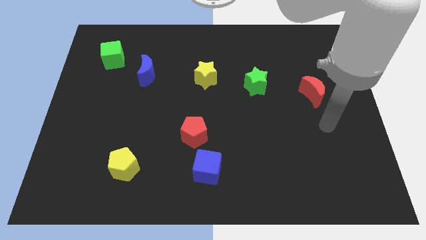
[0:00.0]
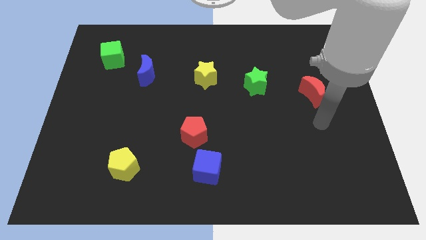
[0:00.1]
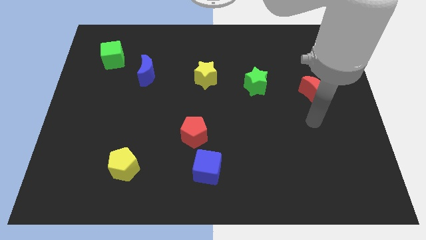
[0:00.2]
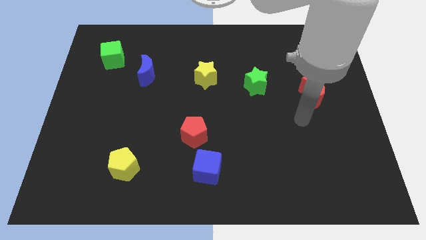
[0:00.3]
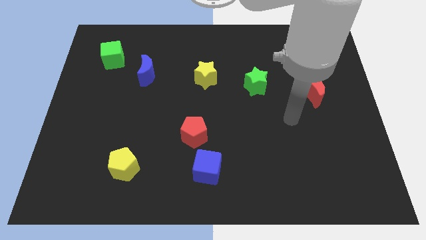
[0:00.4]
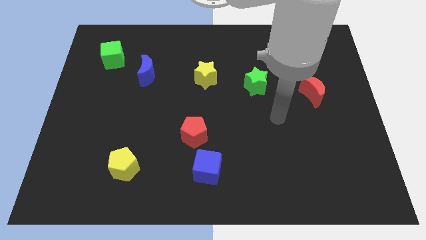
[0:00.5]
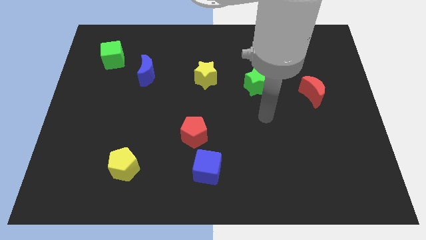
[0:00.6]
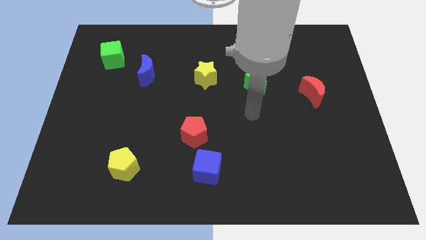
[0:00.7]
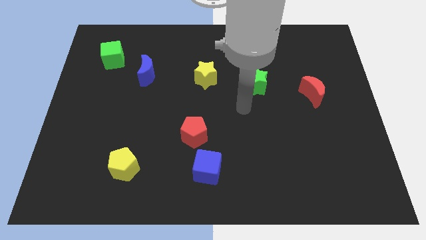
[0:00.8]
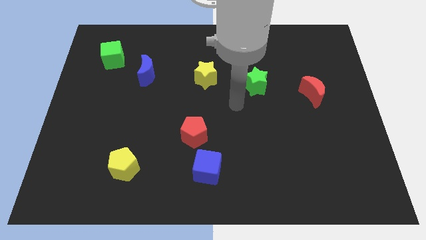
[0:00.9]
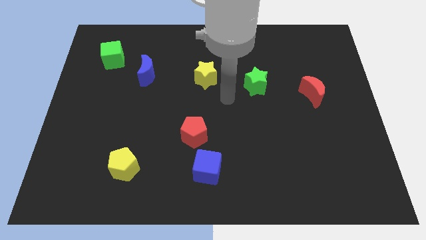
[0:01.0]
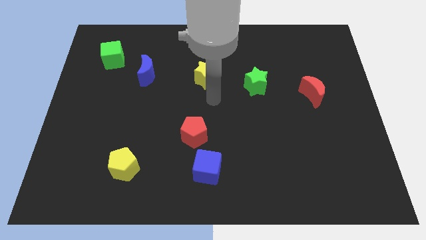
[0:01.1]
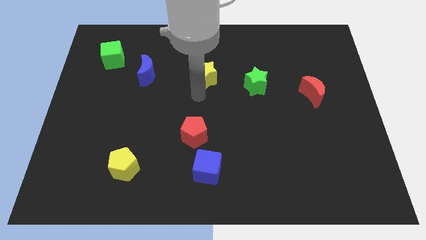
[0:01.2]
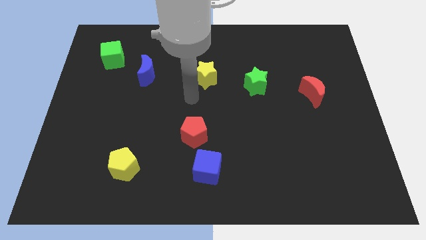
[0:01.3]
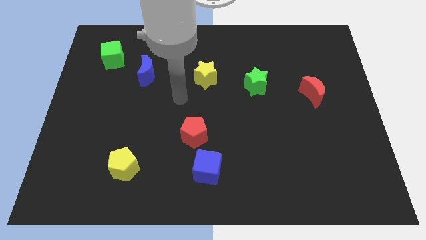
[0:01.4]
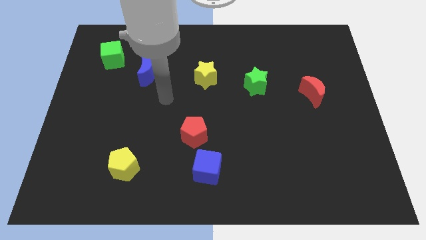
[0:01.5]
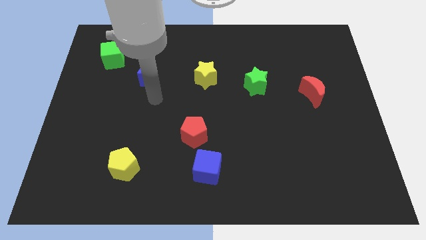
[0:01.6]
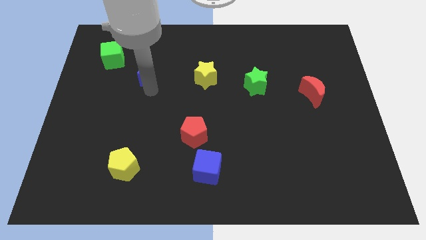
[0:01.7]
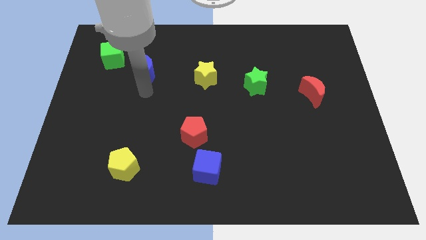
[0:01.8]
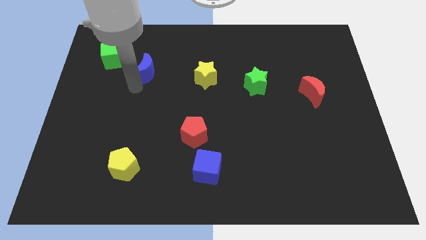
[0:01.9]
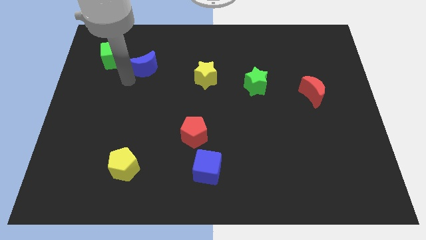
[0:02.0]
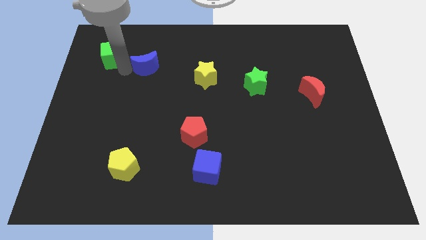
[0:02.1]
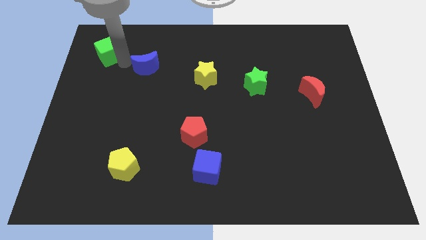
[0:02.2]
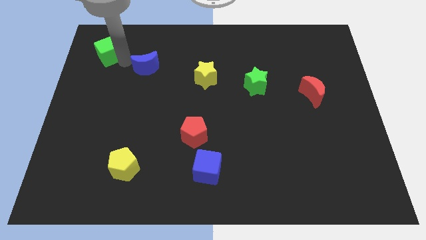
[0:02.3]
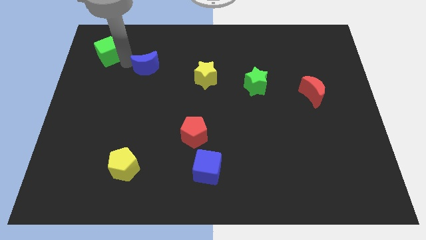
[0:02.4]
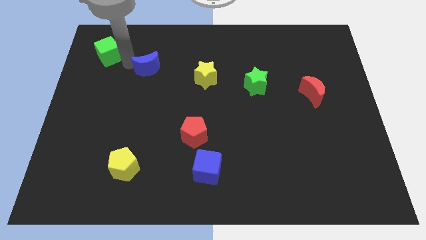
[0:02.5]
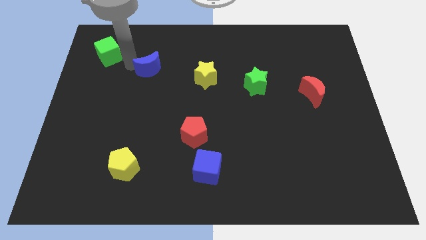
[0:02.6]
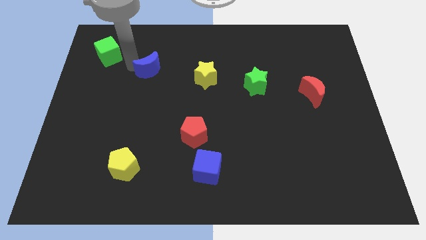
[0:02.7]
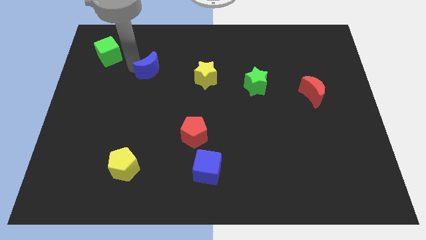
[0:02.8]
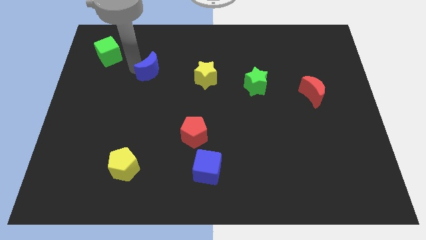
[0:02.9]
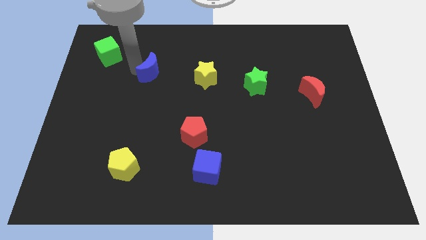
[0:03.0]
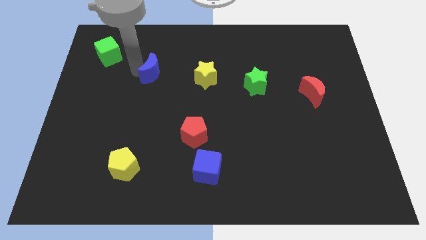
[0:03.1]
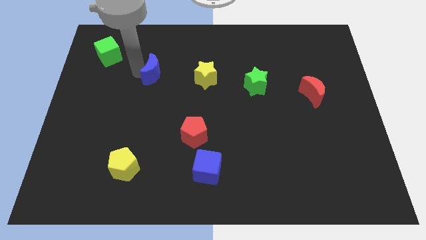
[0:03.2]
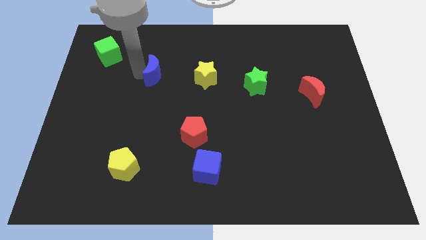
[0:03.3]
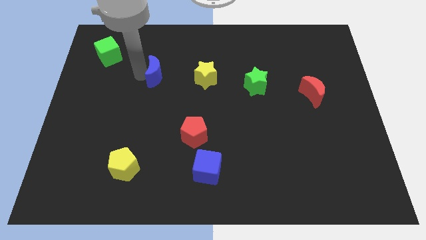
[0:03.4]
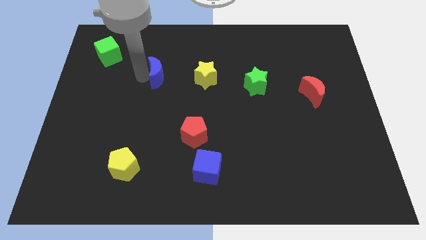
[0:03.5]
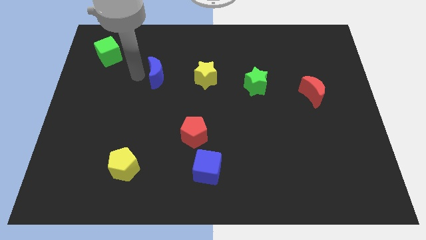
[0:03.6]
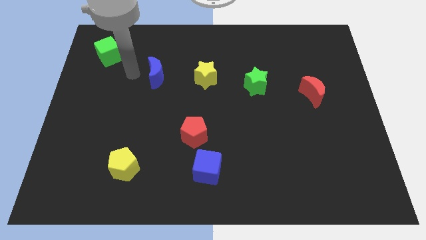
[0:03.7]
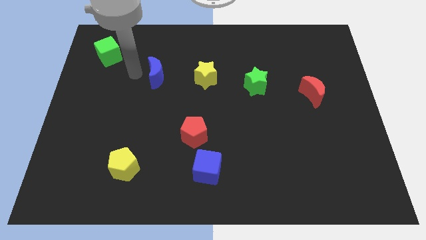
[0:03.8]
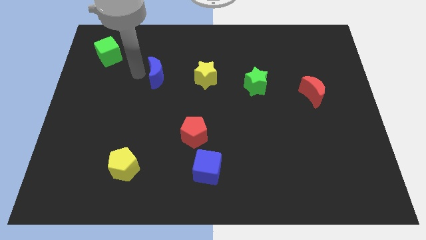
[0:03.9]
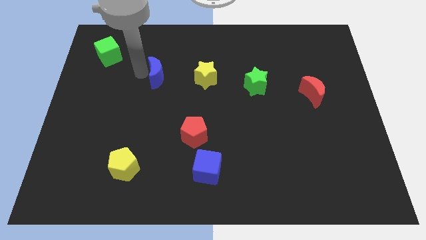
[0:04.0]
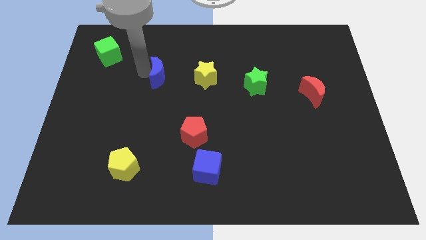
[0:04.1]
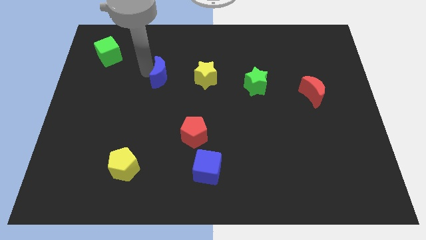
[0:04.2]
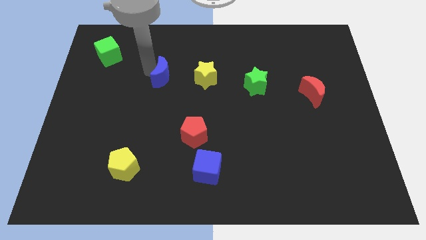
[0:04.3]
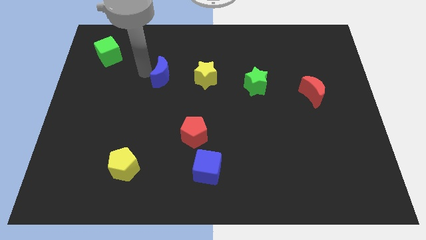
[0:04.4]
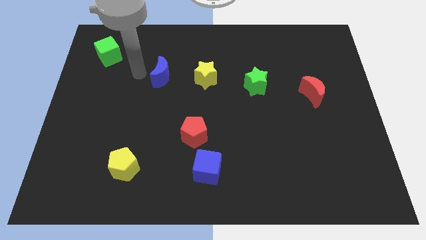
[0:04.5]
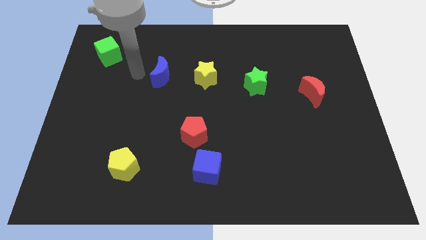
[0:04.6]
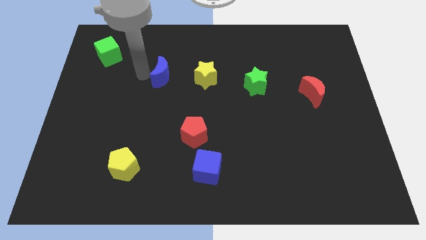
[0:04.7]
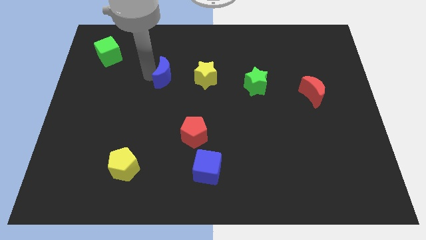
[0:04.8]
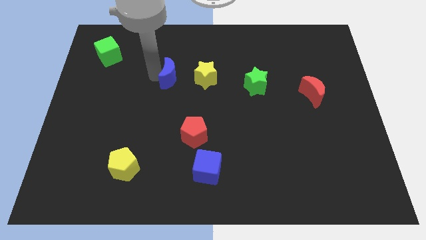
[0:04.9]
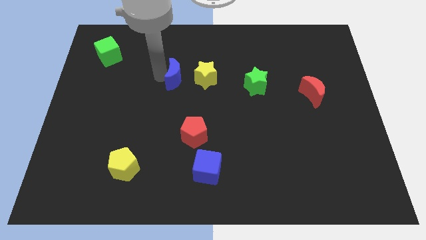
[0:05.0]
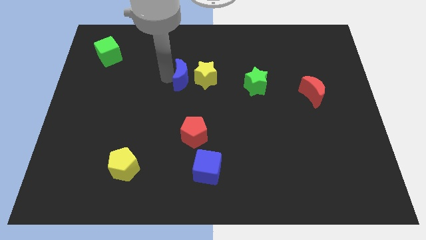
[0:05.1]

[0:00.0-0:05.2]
slide the blue moon close to the yellow star

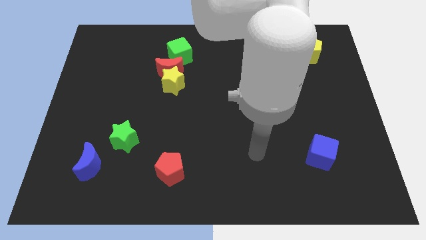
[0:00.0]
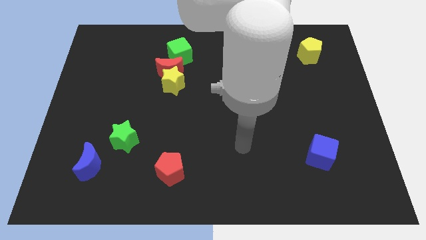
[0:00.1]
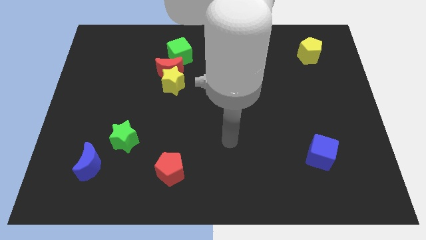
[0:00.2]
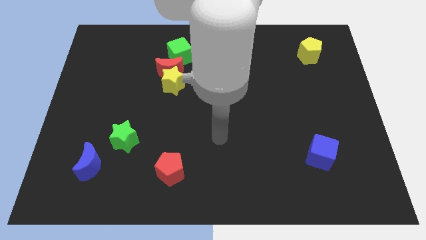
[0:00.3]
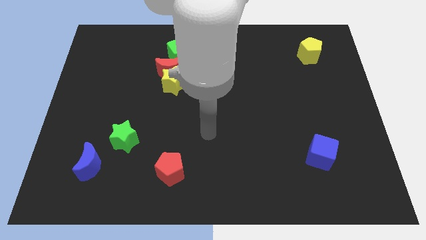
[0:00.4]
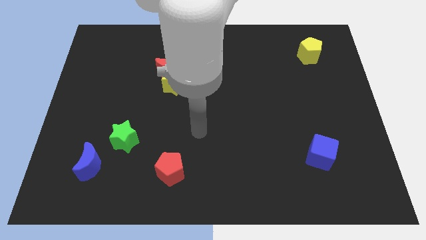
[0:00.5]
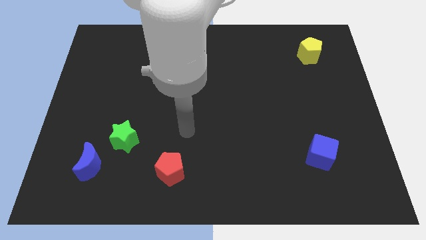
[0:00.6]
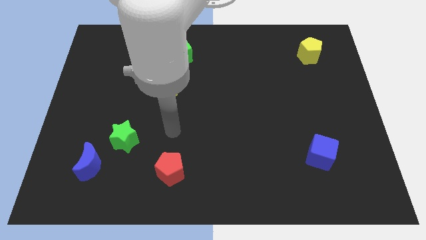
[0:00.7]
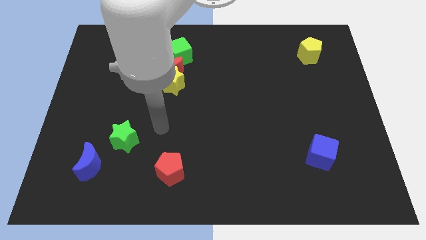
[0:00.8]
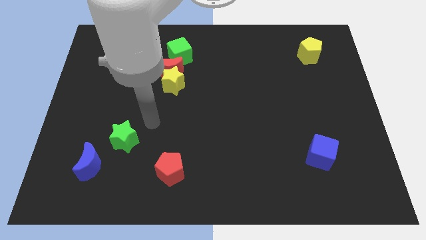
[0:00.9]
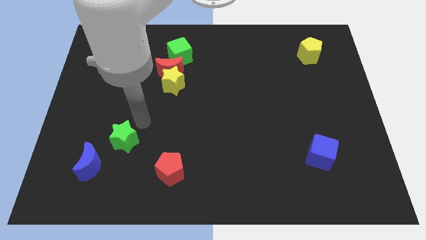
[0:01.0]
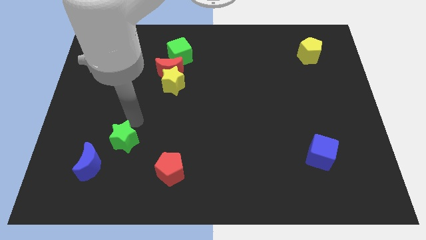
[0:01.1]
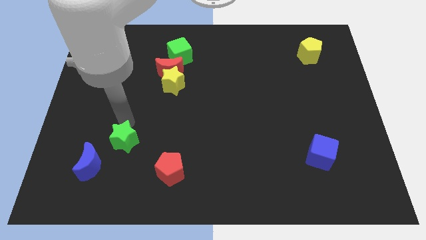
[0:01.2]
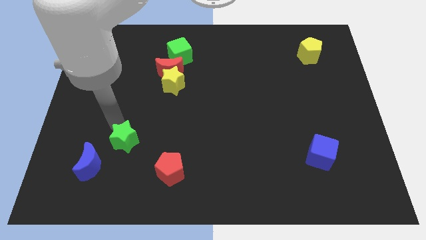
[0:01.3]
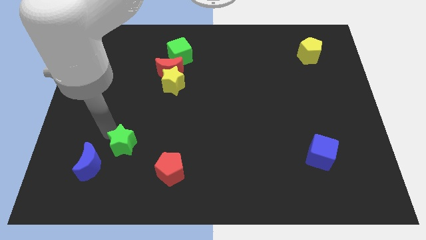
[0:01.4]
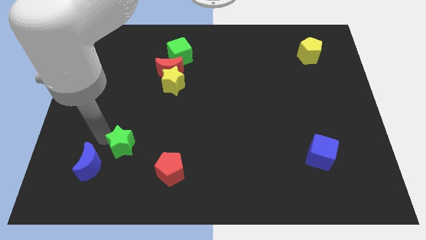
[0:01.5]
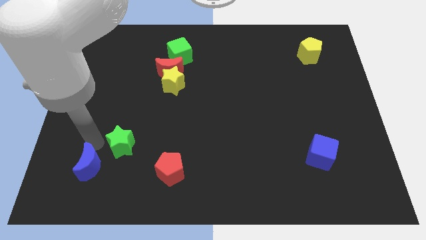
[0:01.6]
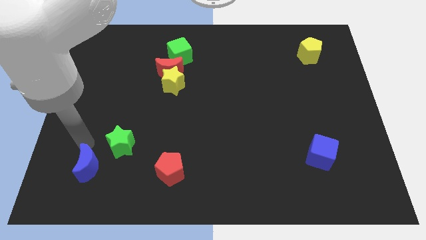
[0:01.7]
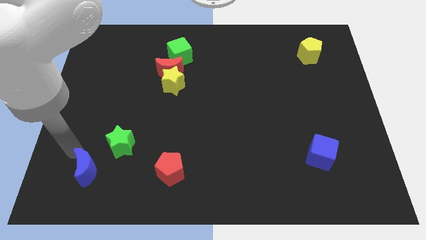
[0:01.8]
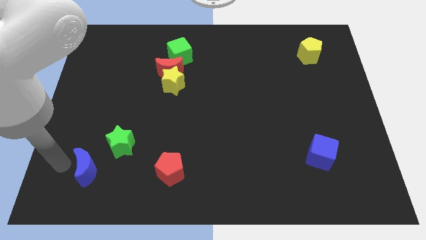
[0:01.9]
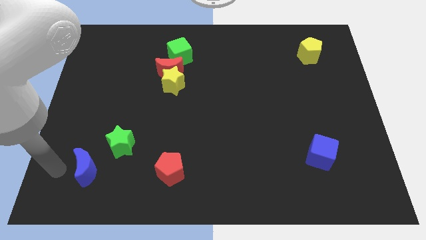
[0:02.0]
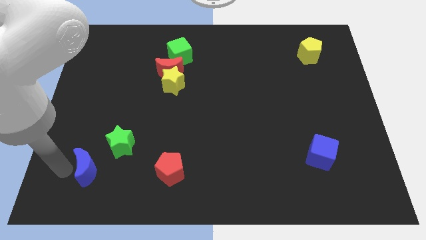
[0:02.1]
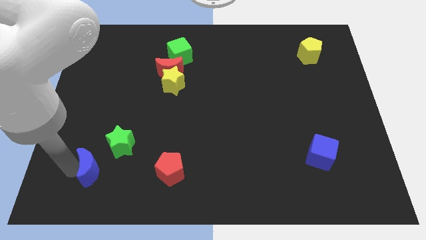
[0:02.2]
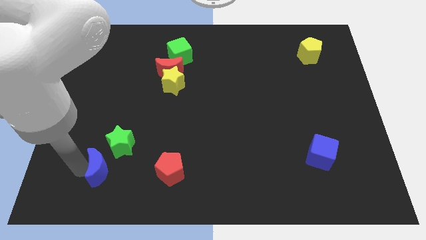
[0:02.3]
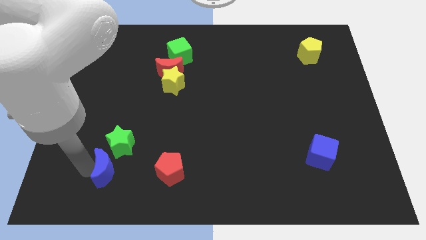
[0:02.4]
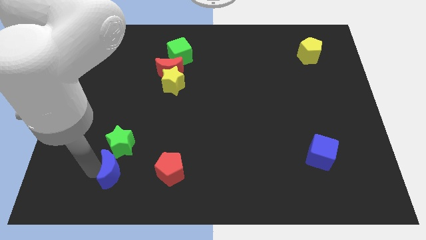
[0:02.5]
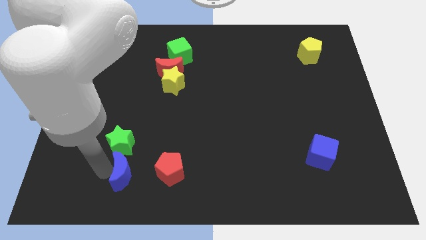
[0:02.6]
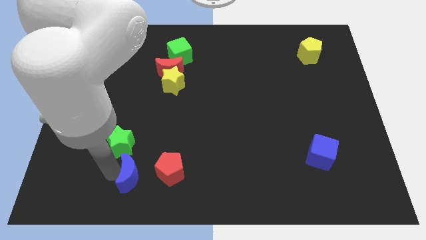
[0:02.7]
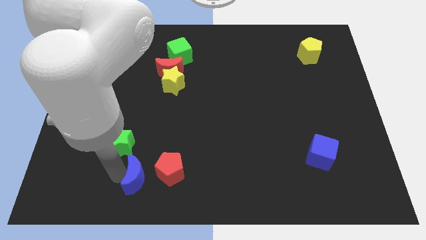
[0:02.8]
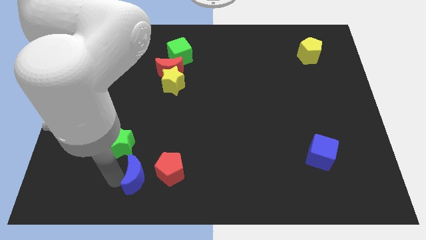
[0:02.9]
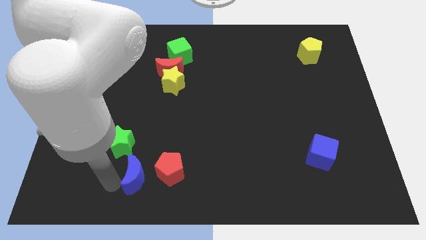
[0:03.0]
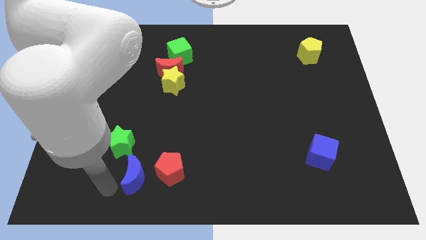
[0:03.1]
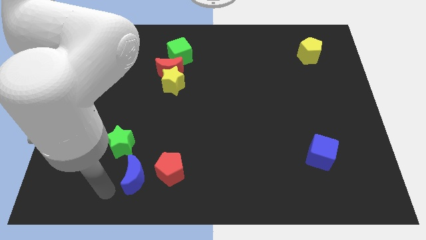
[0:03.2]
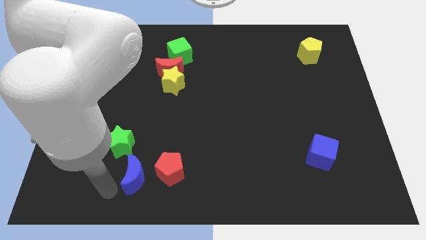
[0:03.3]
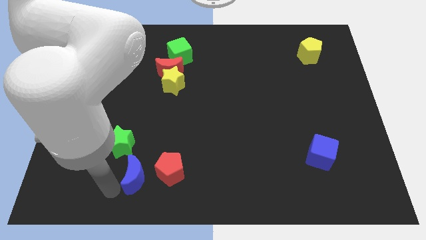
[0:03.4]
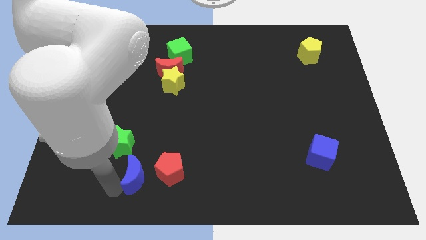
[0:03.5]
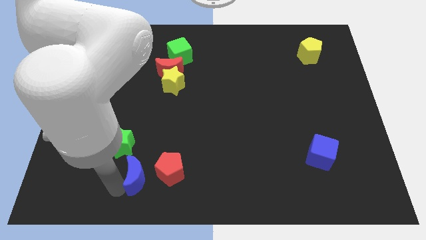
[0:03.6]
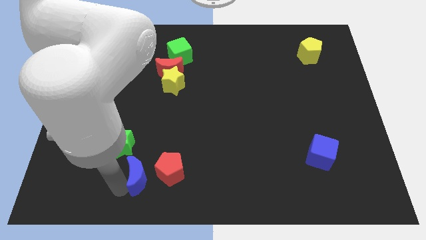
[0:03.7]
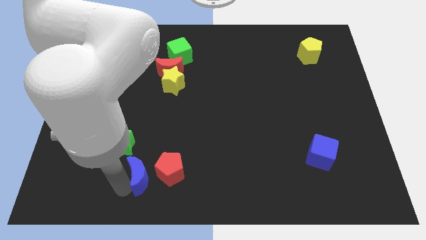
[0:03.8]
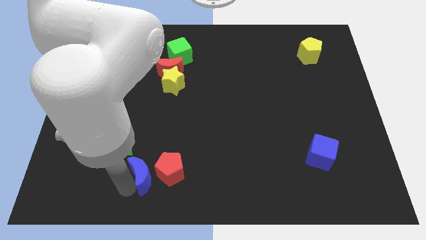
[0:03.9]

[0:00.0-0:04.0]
move the blue moon towards the red pentagon
